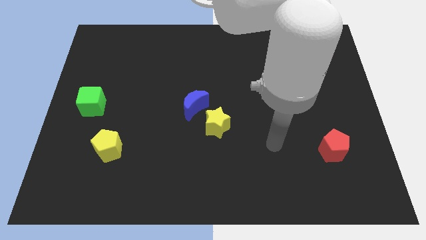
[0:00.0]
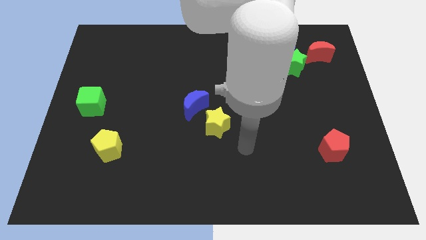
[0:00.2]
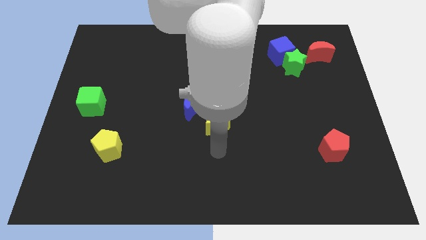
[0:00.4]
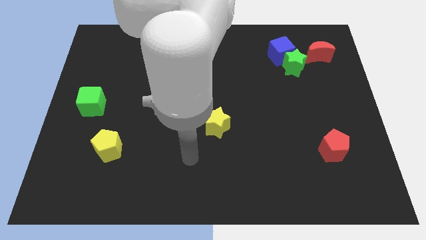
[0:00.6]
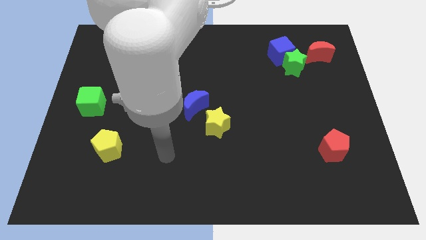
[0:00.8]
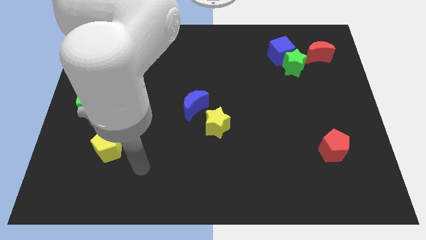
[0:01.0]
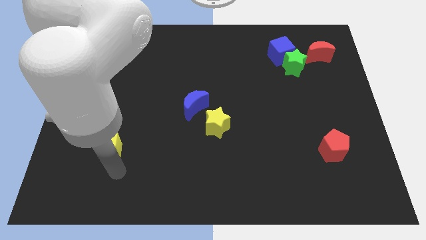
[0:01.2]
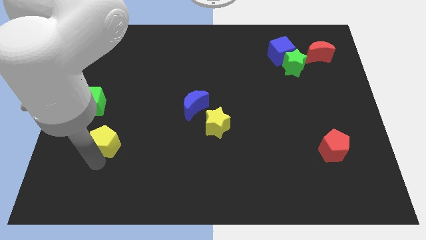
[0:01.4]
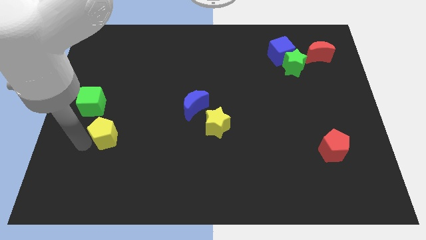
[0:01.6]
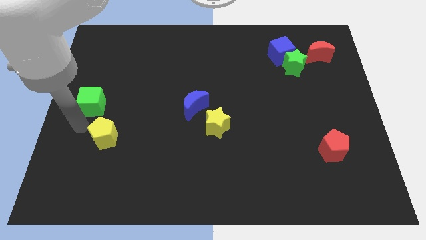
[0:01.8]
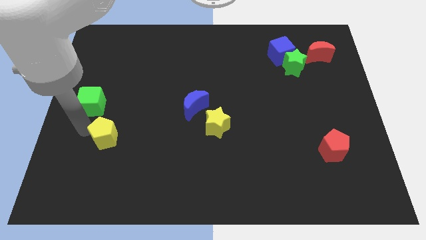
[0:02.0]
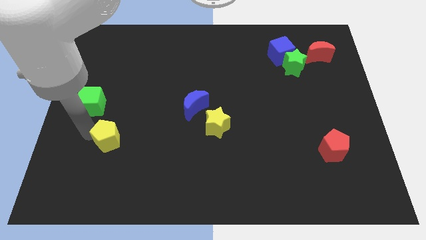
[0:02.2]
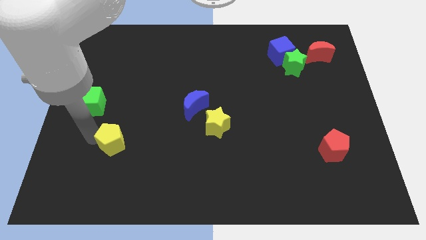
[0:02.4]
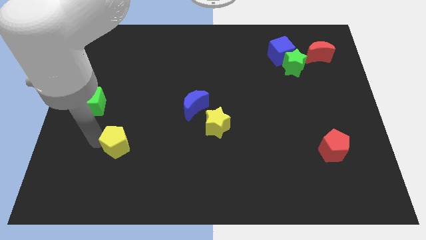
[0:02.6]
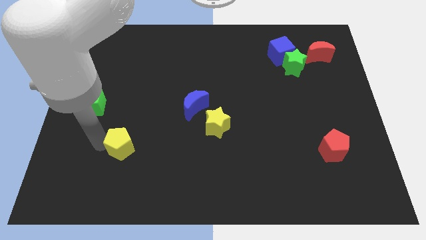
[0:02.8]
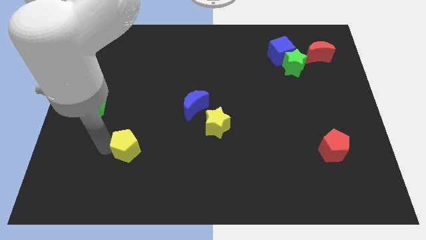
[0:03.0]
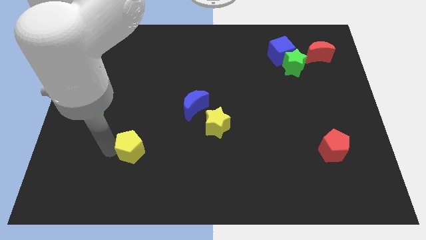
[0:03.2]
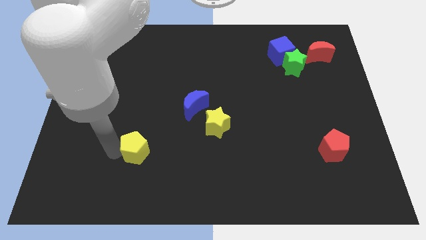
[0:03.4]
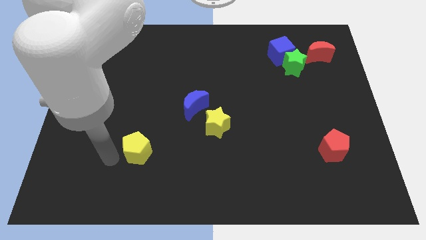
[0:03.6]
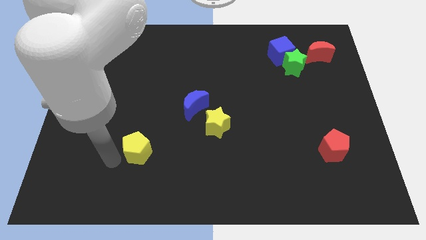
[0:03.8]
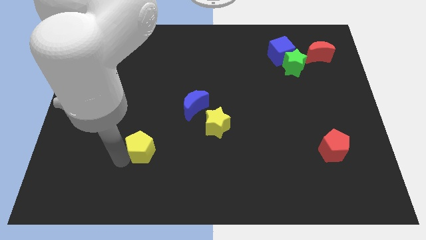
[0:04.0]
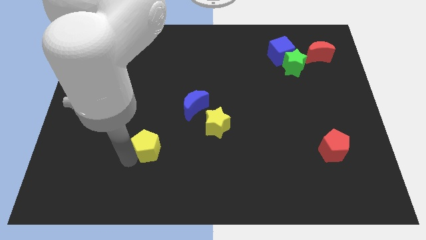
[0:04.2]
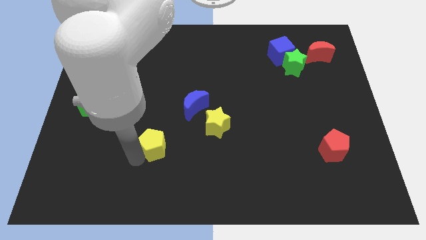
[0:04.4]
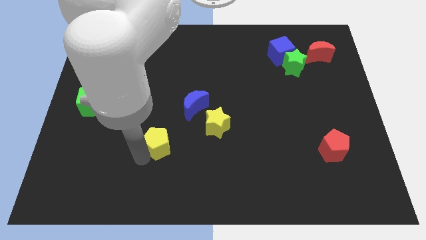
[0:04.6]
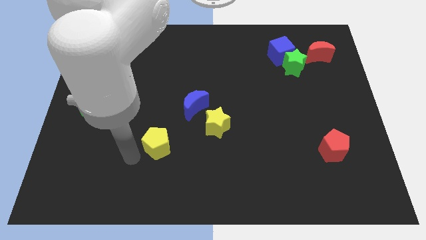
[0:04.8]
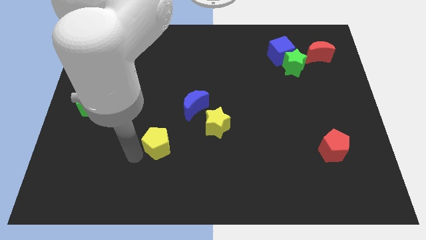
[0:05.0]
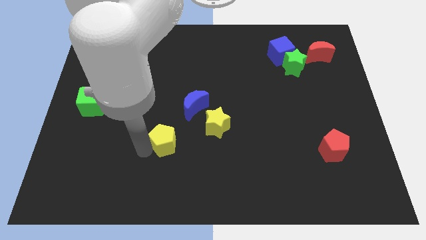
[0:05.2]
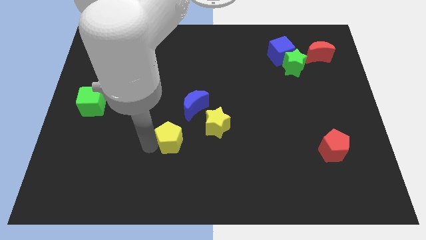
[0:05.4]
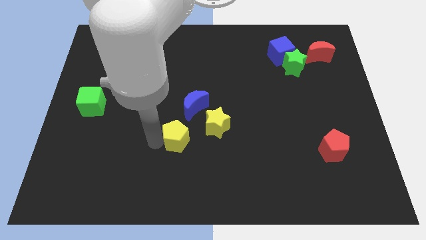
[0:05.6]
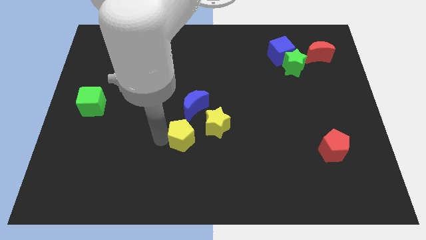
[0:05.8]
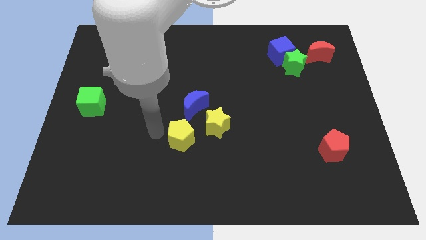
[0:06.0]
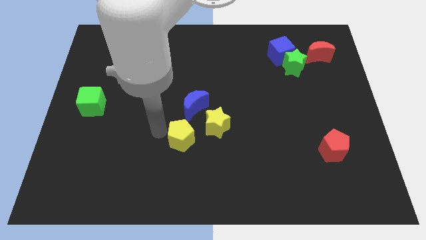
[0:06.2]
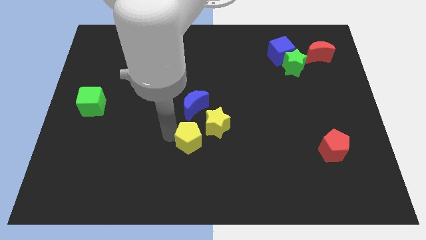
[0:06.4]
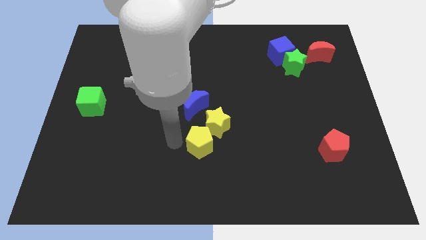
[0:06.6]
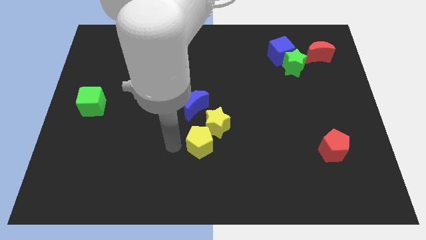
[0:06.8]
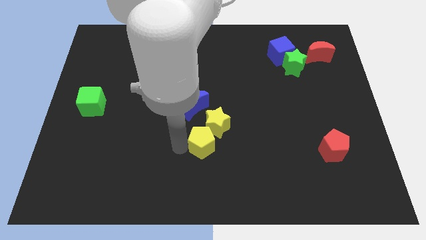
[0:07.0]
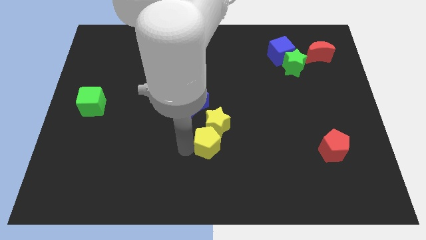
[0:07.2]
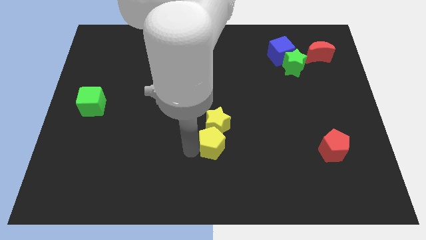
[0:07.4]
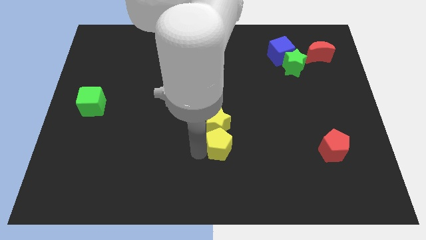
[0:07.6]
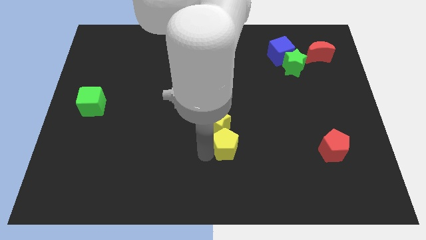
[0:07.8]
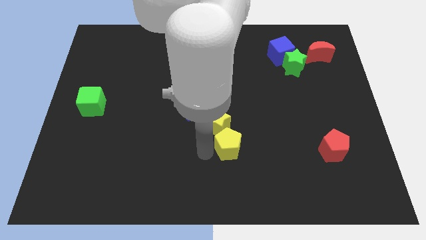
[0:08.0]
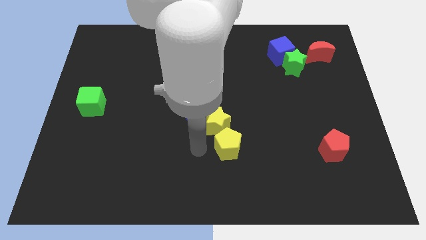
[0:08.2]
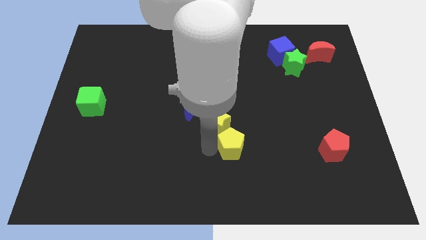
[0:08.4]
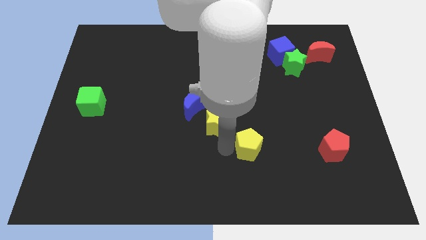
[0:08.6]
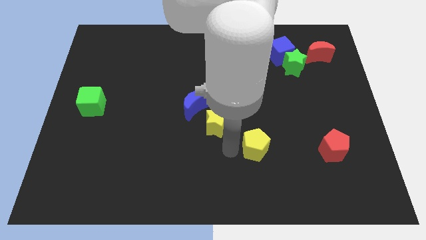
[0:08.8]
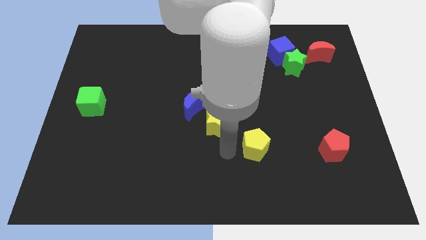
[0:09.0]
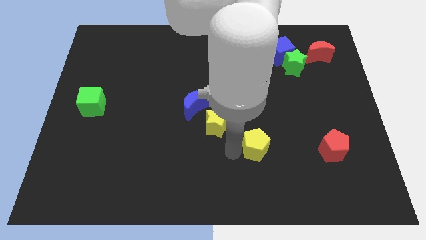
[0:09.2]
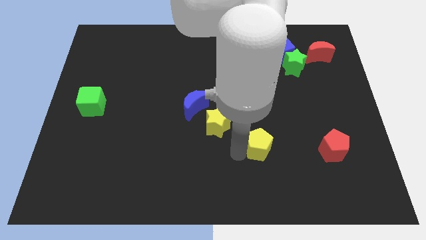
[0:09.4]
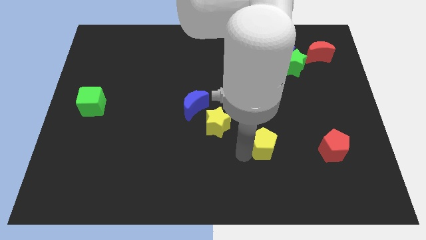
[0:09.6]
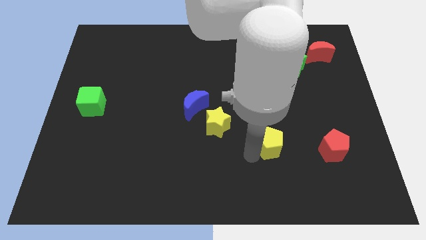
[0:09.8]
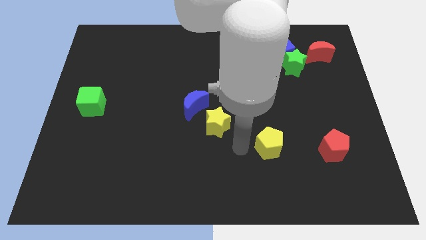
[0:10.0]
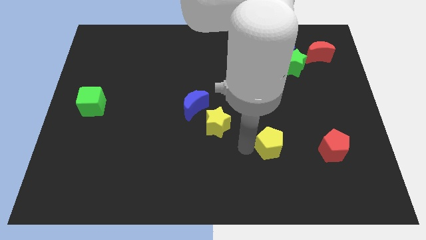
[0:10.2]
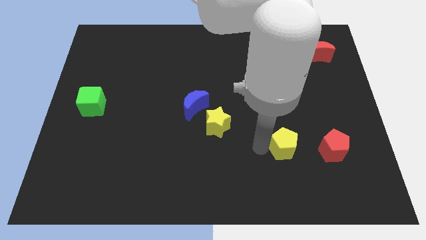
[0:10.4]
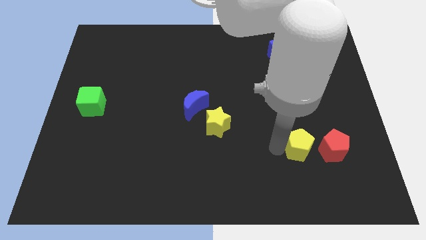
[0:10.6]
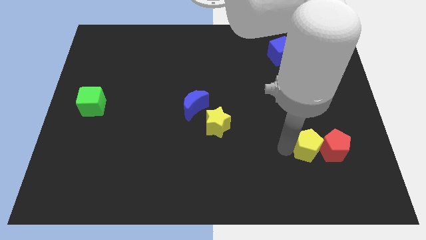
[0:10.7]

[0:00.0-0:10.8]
put the yellow pentagon to the red pentagon

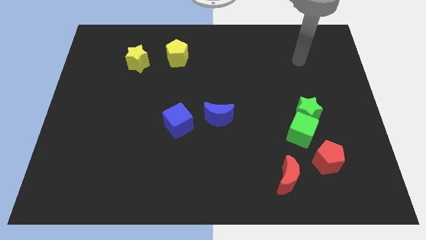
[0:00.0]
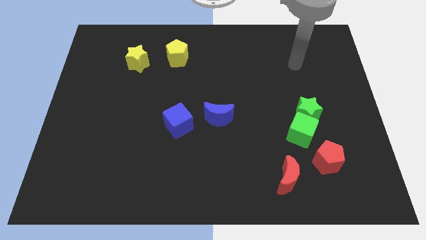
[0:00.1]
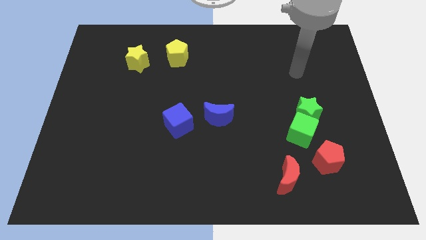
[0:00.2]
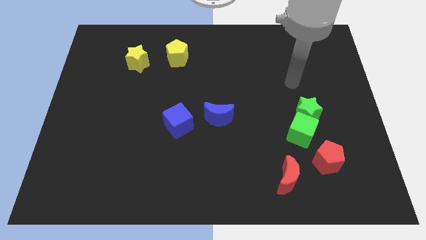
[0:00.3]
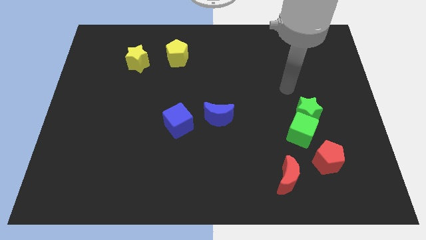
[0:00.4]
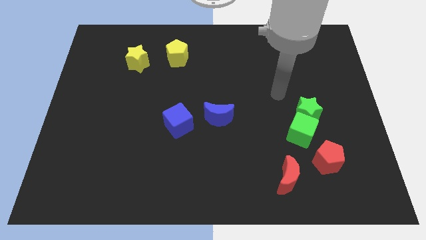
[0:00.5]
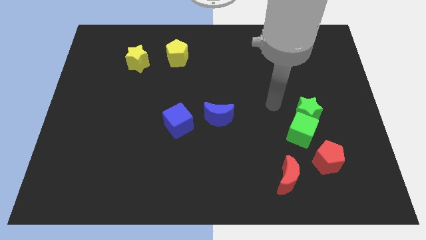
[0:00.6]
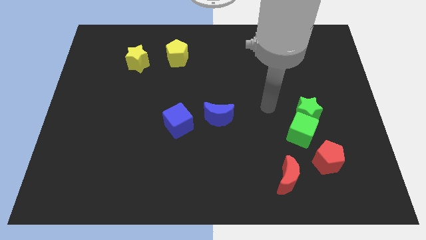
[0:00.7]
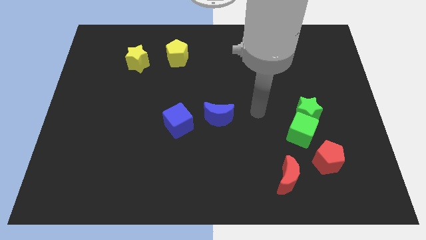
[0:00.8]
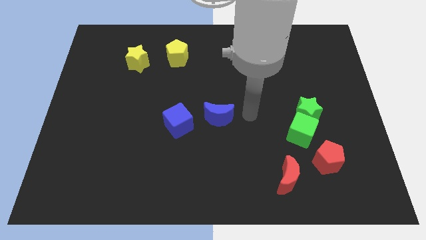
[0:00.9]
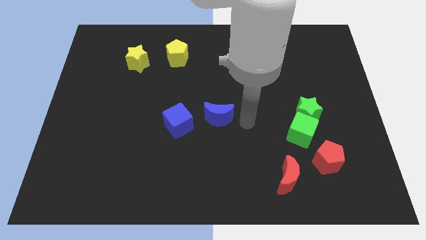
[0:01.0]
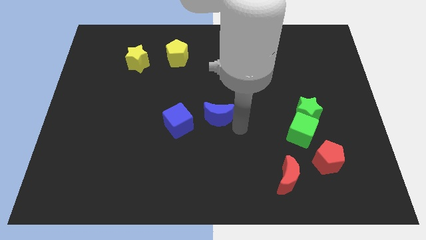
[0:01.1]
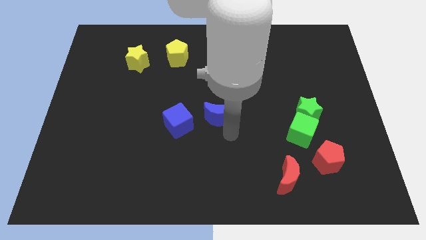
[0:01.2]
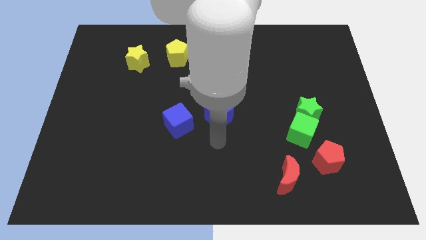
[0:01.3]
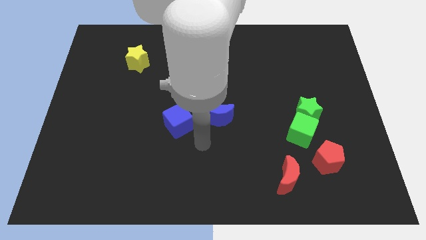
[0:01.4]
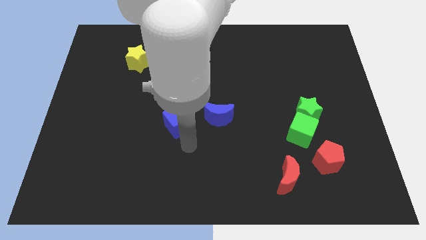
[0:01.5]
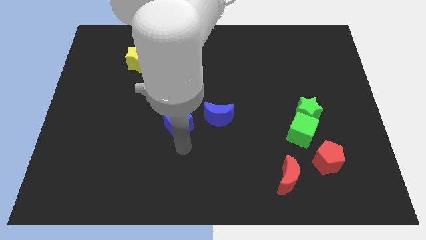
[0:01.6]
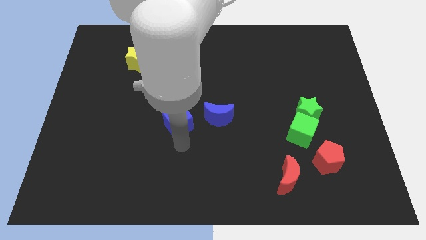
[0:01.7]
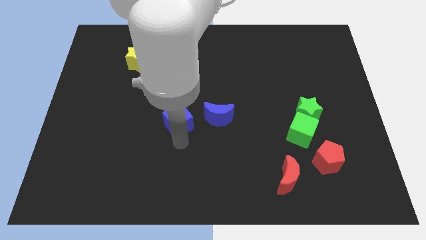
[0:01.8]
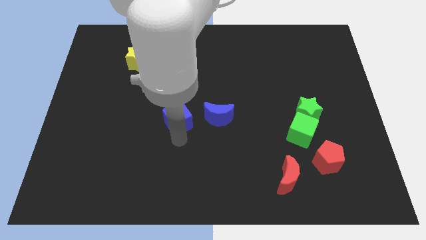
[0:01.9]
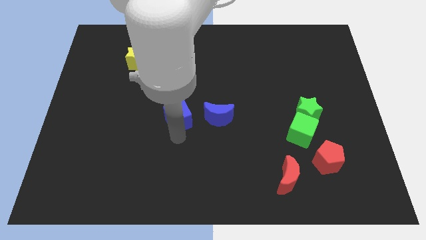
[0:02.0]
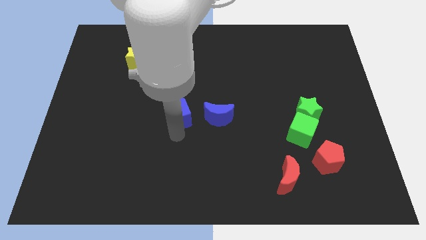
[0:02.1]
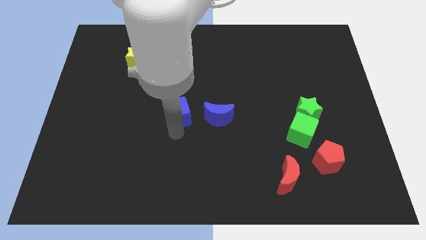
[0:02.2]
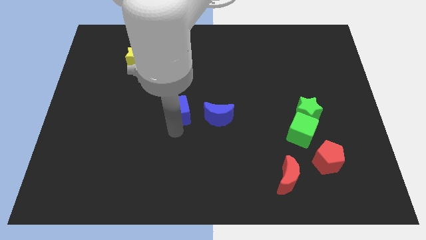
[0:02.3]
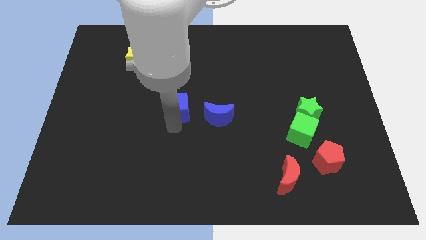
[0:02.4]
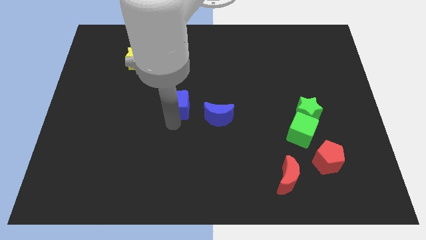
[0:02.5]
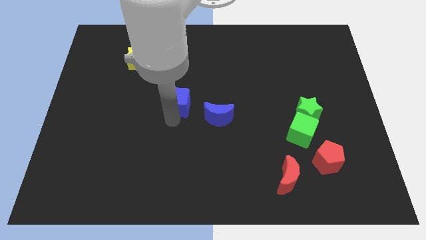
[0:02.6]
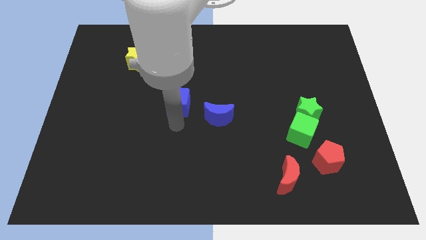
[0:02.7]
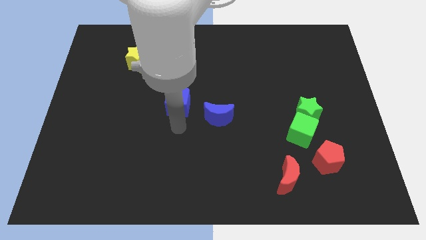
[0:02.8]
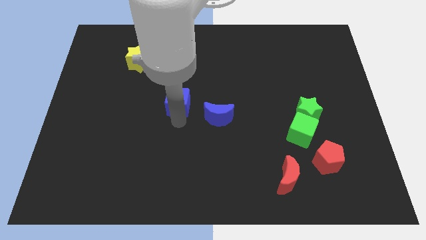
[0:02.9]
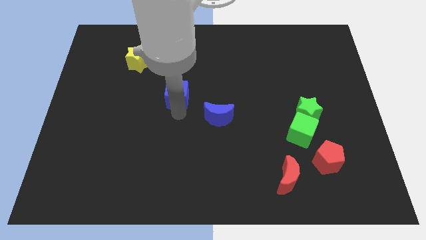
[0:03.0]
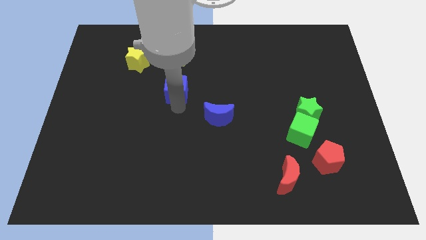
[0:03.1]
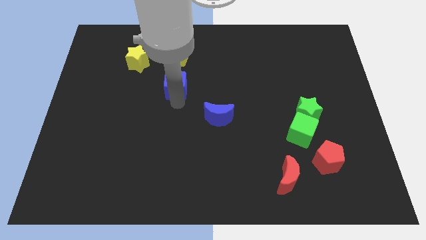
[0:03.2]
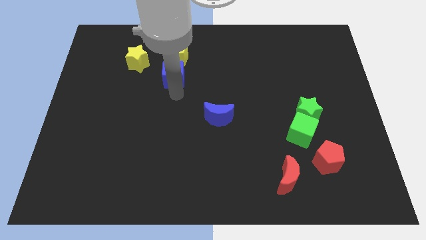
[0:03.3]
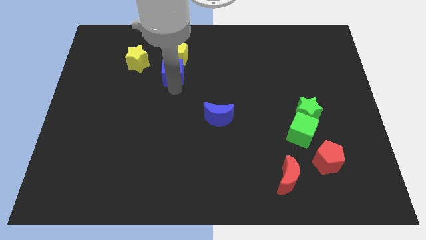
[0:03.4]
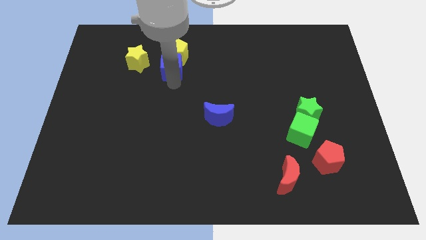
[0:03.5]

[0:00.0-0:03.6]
slide the blue cube to the yellow pentagon
